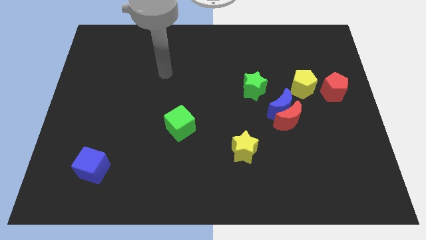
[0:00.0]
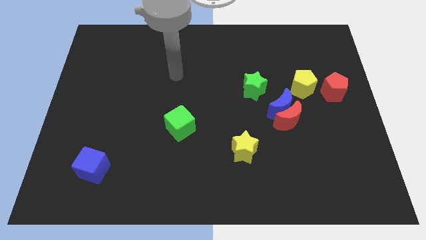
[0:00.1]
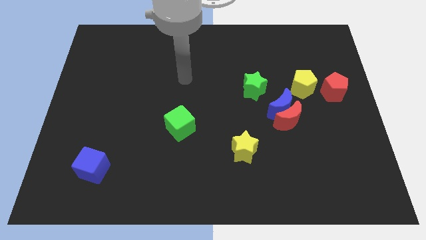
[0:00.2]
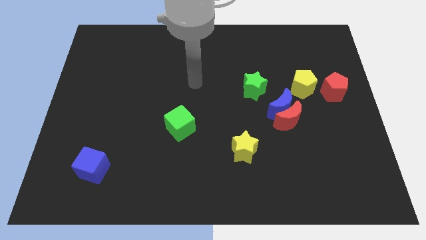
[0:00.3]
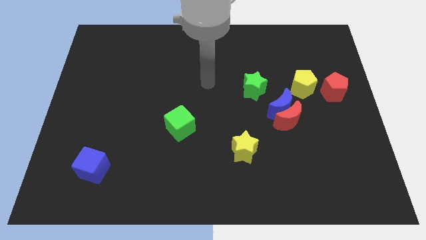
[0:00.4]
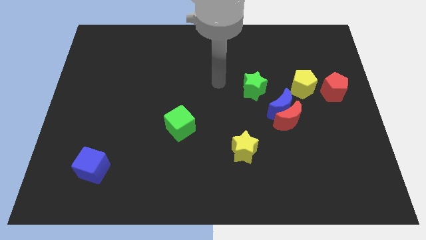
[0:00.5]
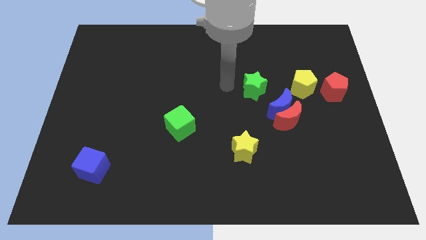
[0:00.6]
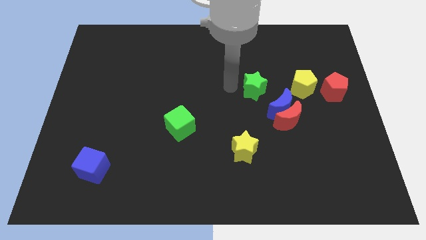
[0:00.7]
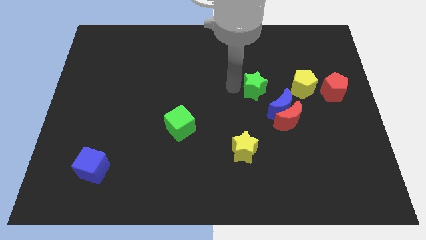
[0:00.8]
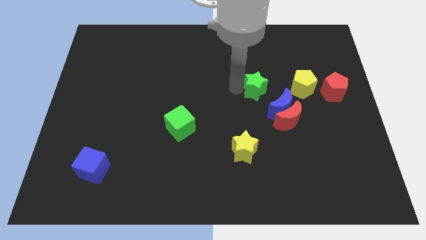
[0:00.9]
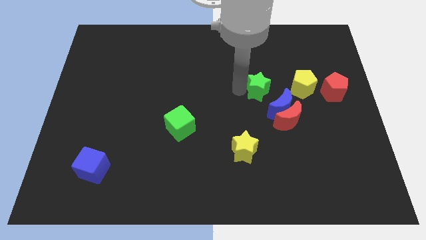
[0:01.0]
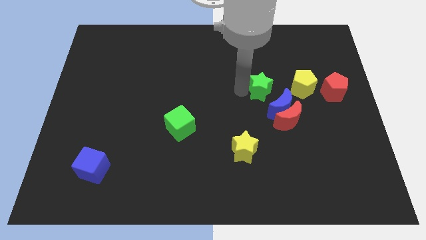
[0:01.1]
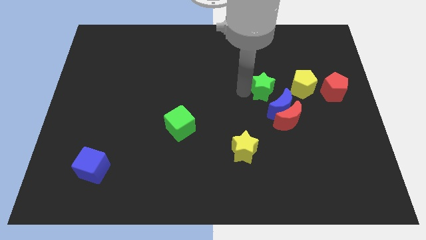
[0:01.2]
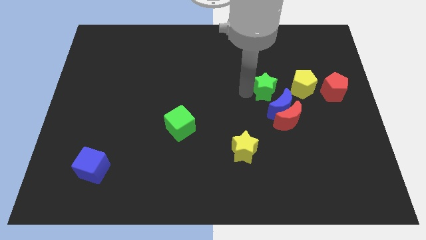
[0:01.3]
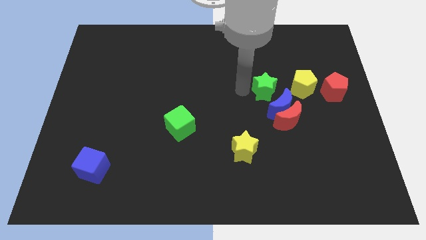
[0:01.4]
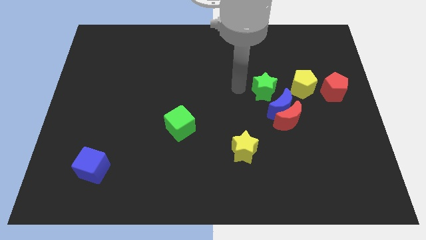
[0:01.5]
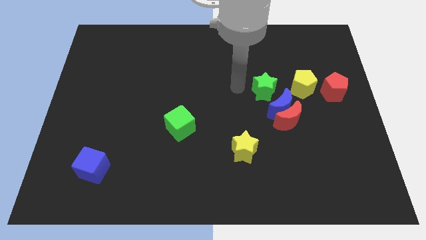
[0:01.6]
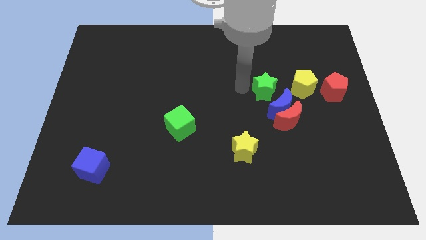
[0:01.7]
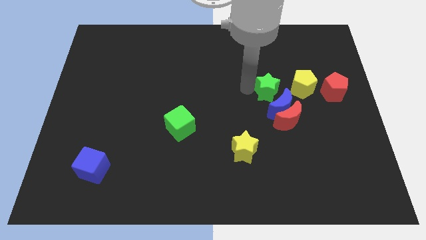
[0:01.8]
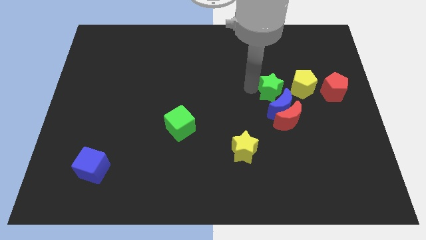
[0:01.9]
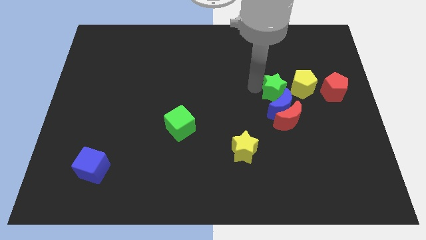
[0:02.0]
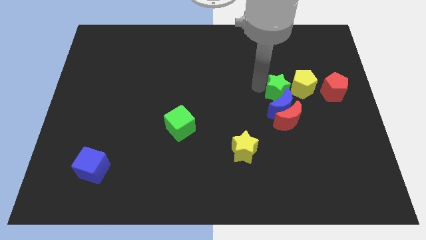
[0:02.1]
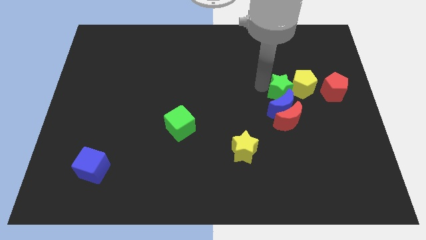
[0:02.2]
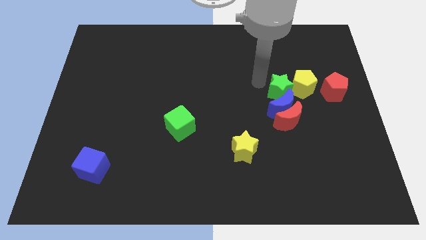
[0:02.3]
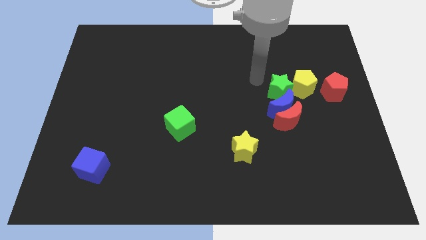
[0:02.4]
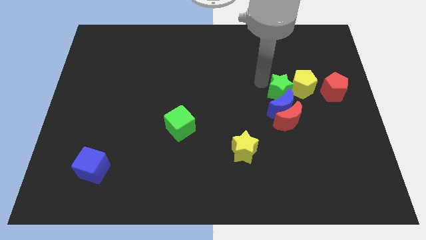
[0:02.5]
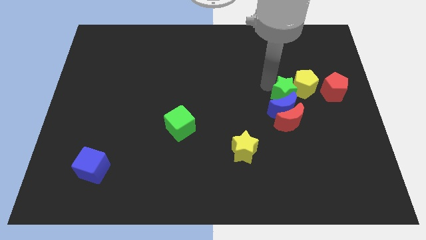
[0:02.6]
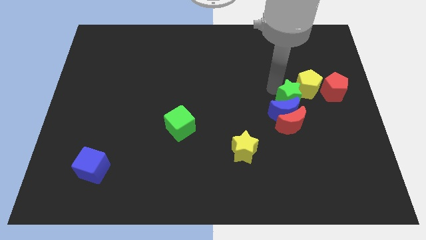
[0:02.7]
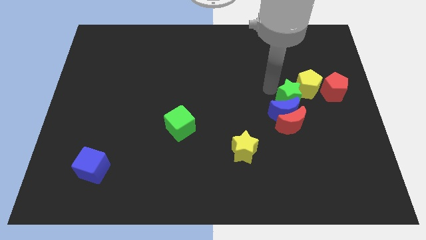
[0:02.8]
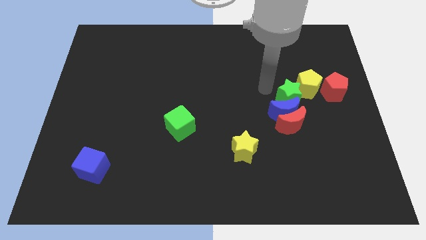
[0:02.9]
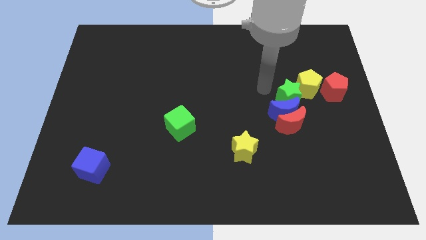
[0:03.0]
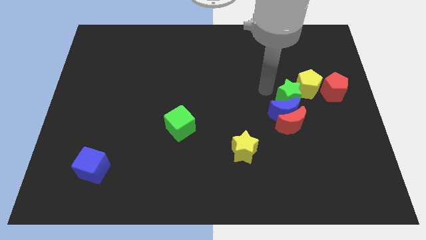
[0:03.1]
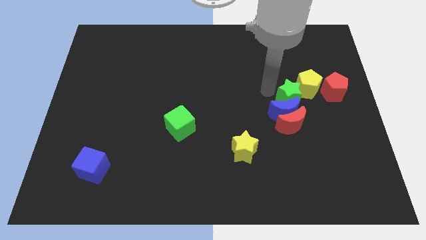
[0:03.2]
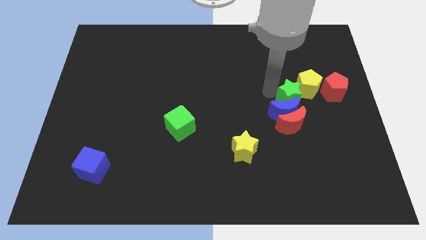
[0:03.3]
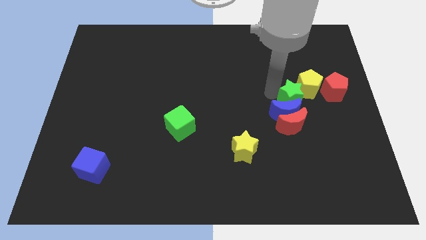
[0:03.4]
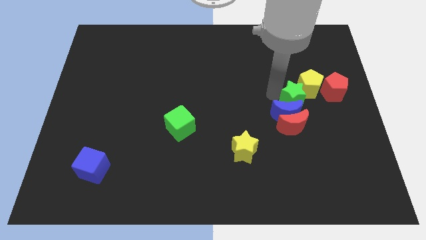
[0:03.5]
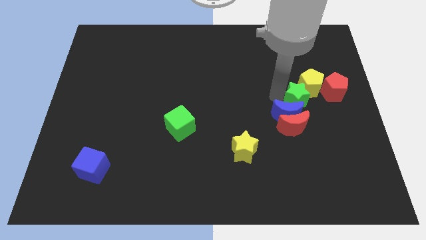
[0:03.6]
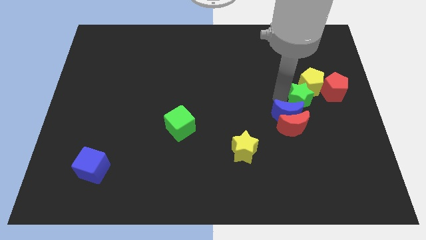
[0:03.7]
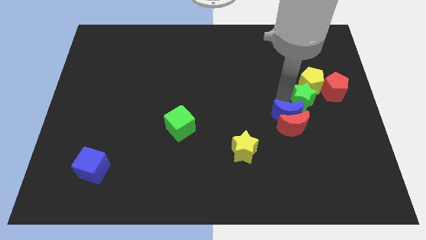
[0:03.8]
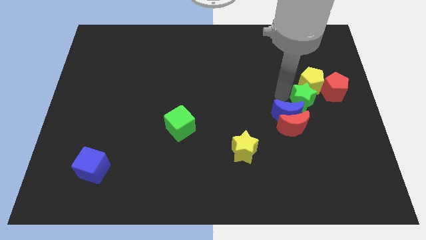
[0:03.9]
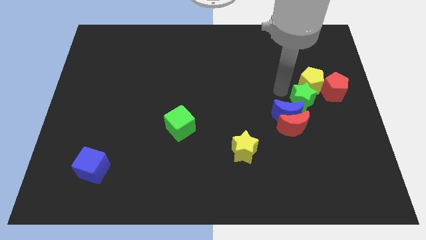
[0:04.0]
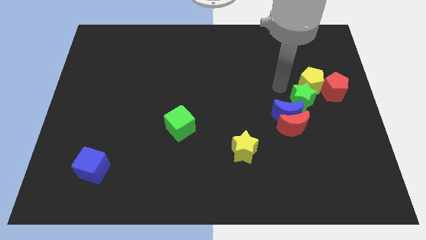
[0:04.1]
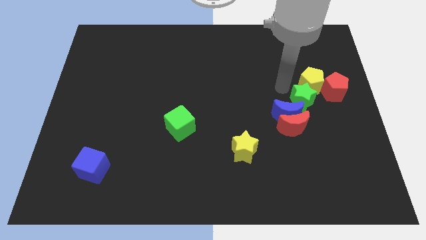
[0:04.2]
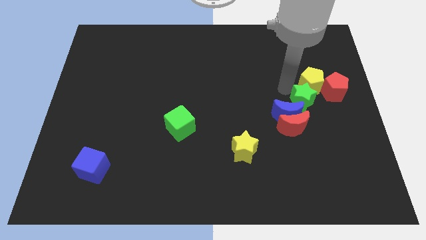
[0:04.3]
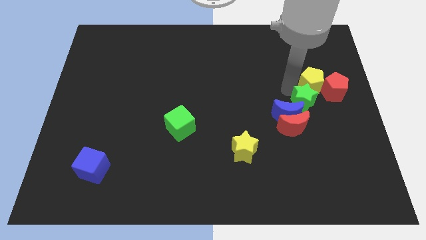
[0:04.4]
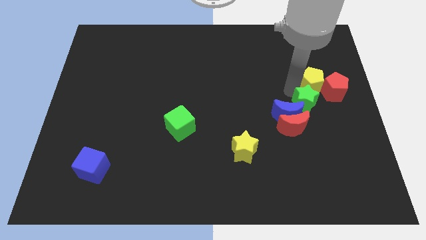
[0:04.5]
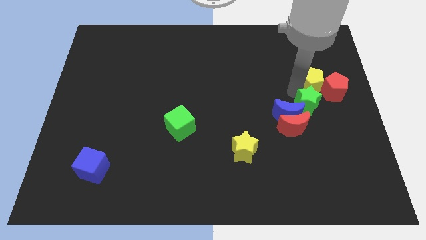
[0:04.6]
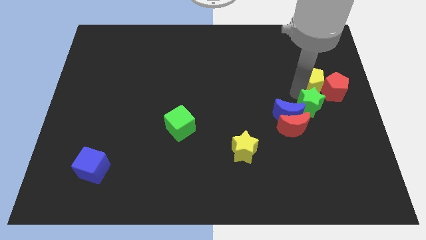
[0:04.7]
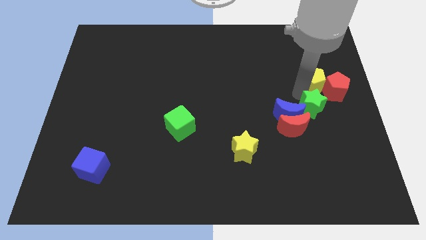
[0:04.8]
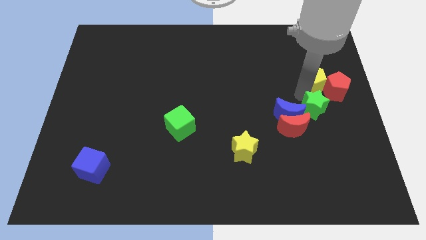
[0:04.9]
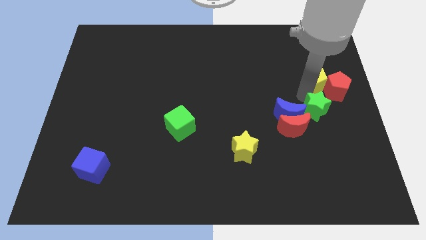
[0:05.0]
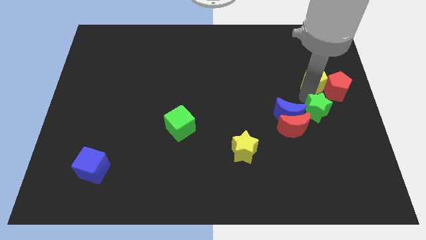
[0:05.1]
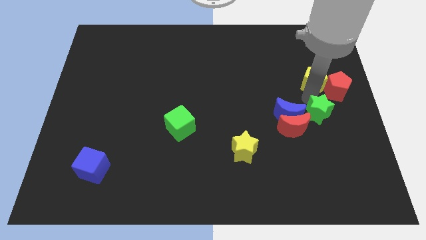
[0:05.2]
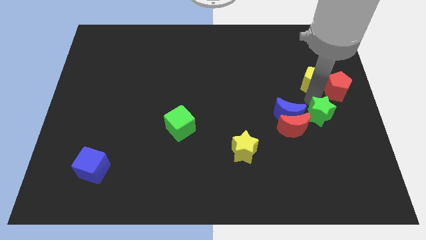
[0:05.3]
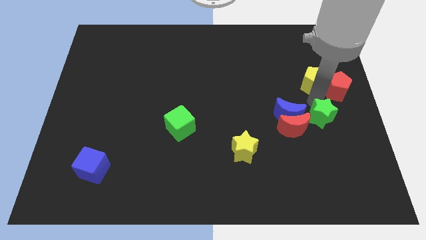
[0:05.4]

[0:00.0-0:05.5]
slide the green star below the red pentagon

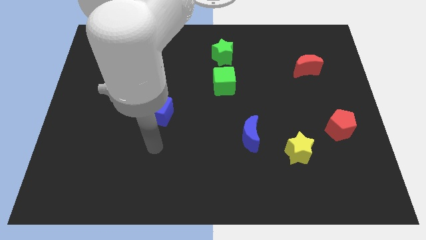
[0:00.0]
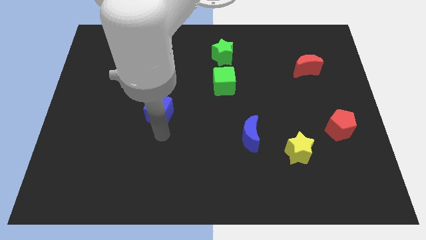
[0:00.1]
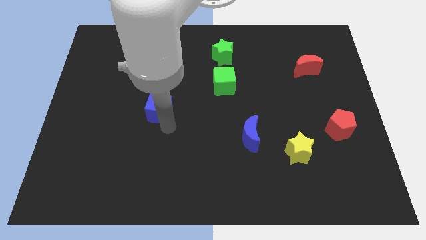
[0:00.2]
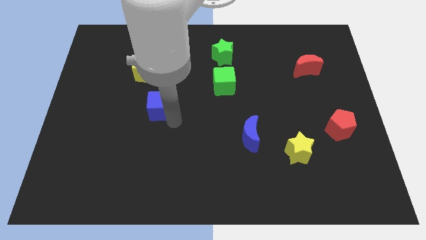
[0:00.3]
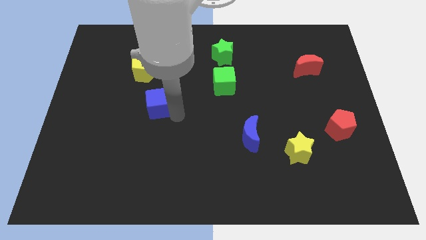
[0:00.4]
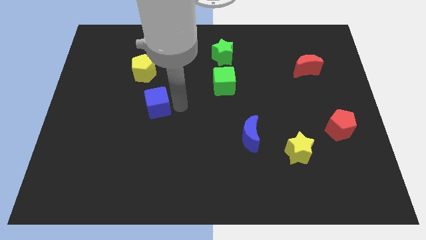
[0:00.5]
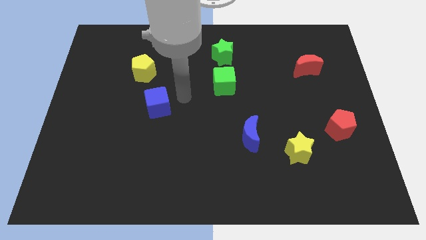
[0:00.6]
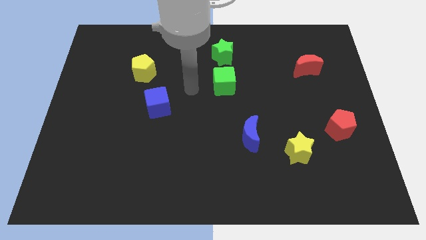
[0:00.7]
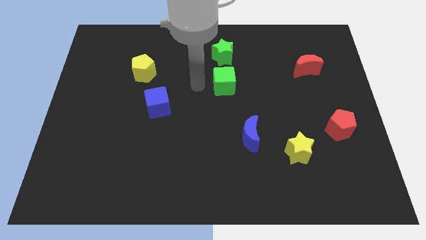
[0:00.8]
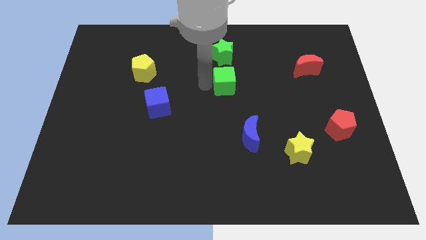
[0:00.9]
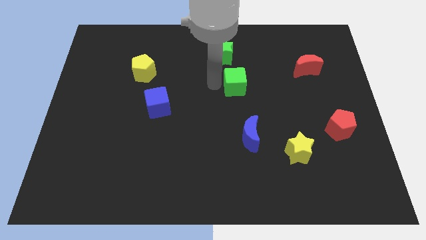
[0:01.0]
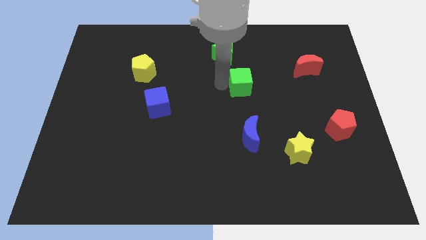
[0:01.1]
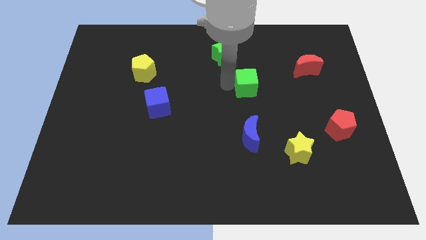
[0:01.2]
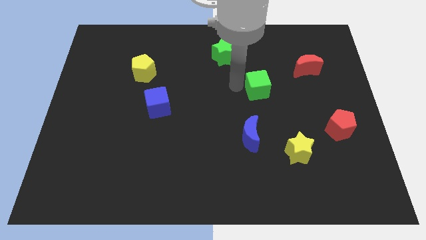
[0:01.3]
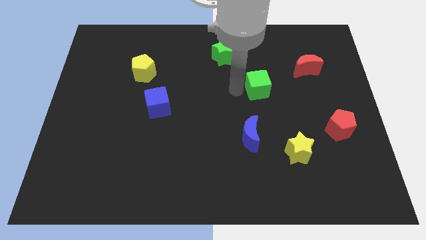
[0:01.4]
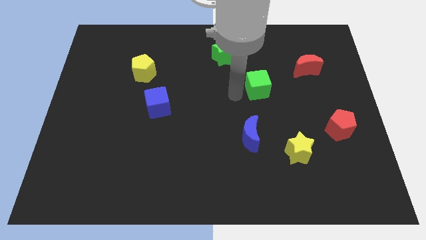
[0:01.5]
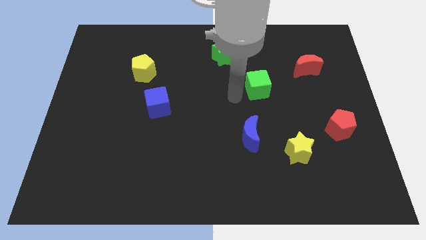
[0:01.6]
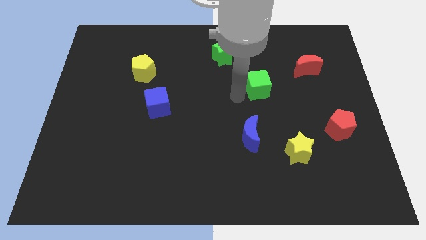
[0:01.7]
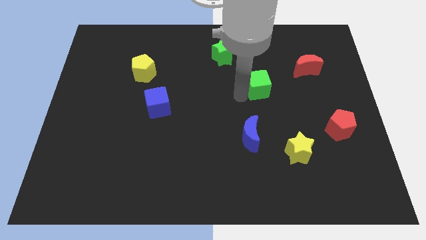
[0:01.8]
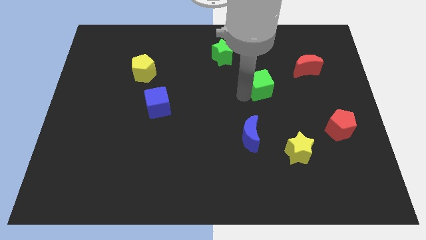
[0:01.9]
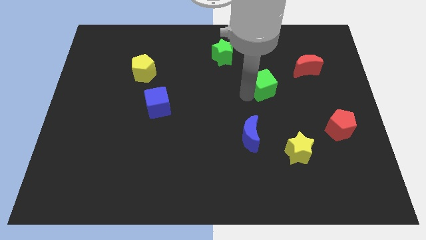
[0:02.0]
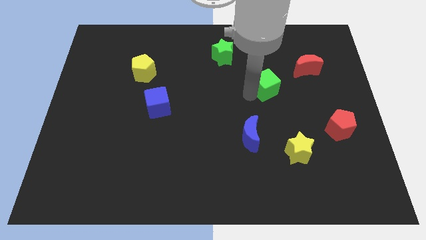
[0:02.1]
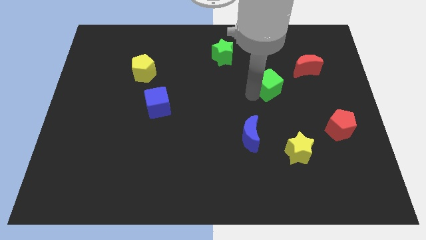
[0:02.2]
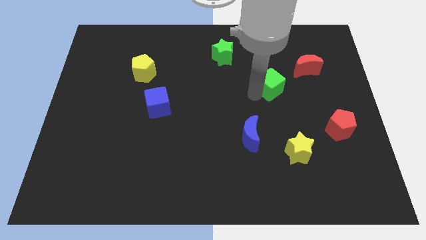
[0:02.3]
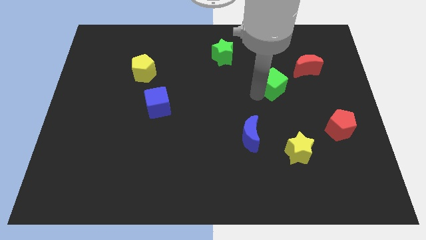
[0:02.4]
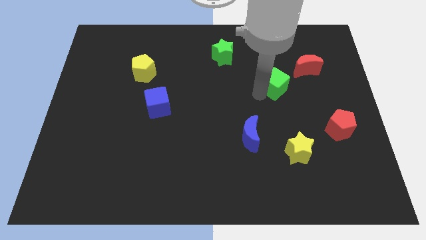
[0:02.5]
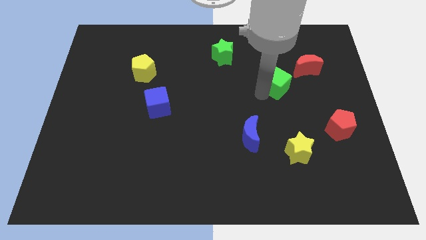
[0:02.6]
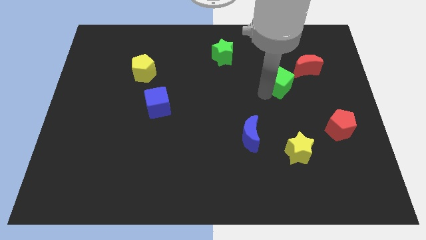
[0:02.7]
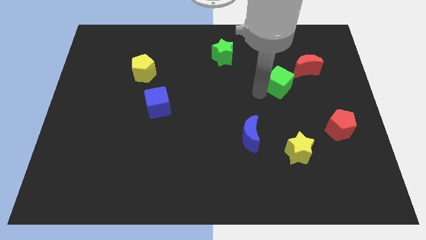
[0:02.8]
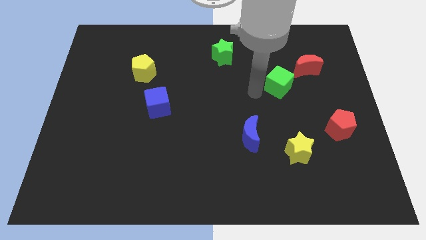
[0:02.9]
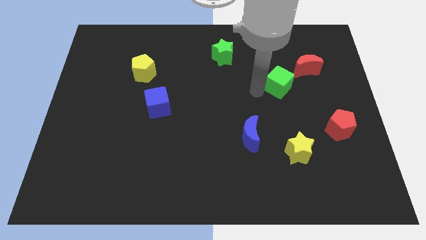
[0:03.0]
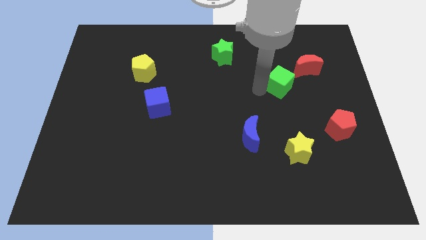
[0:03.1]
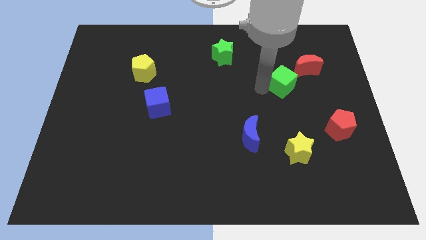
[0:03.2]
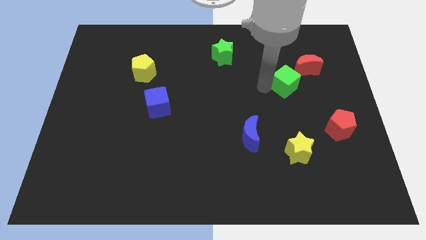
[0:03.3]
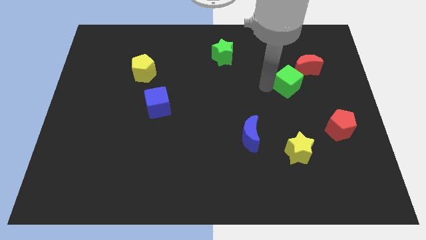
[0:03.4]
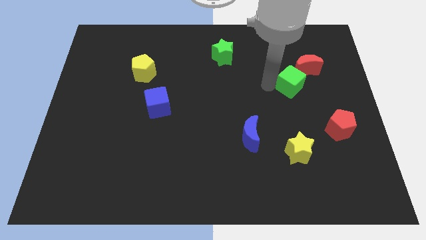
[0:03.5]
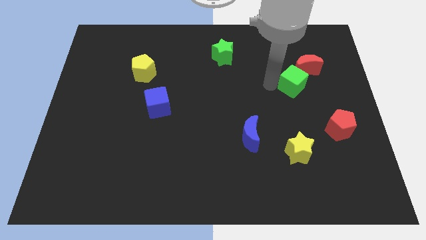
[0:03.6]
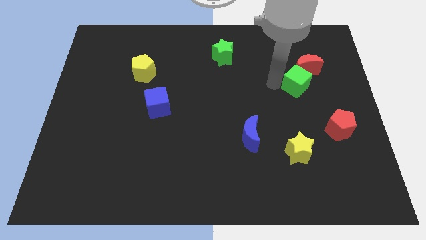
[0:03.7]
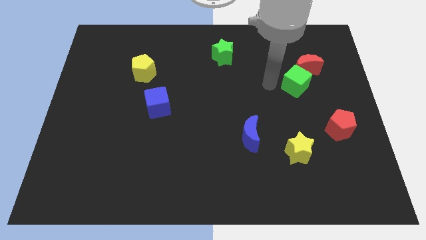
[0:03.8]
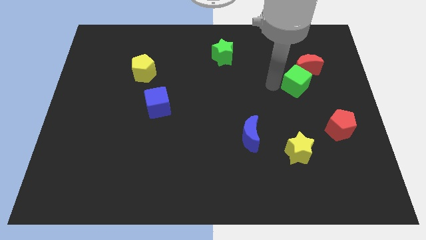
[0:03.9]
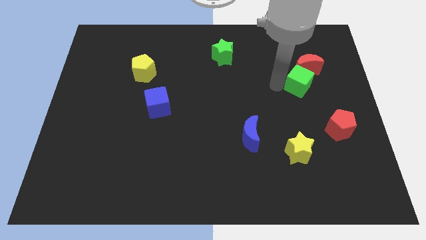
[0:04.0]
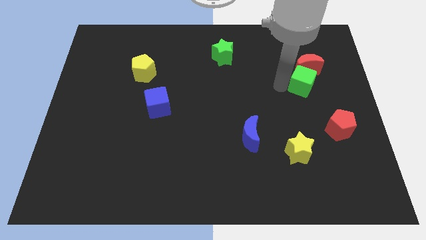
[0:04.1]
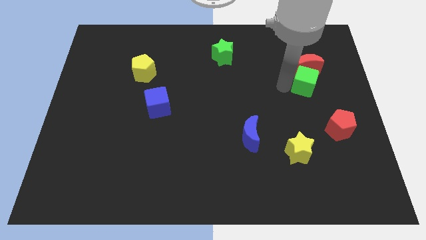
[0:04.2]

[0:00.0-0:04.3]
slide the green cube to the bottom right of the red moon
